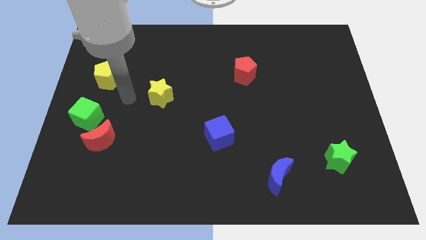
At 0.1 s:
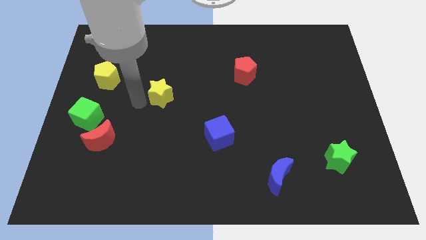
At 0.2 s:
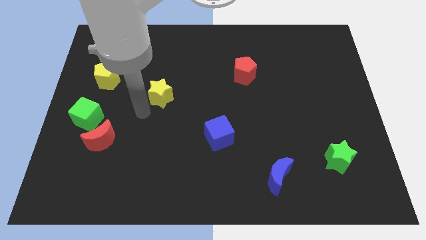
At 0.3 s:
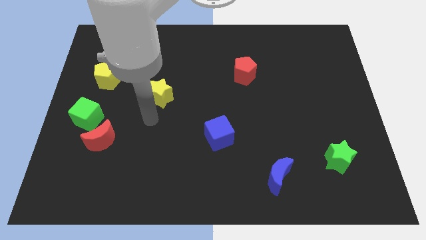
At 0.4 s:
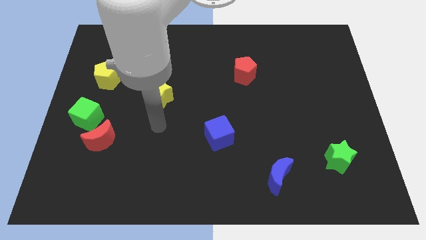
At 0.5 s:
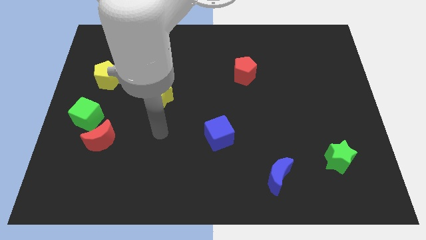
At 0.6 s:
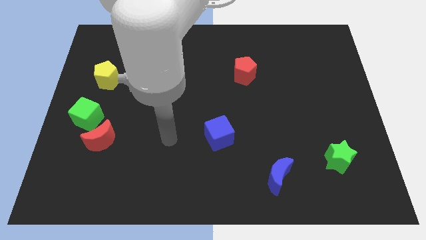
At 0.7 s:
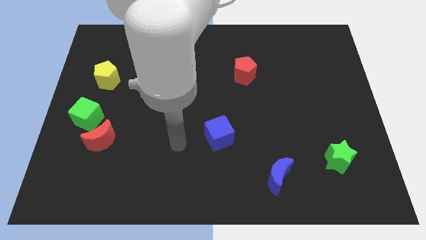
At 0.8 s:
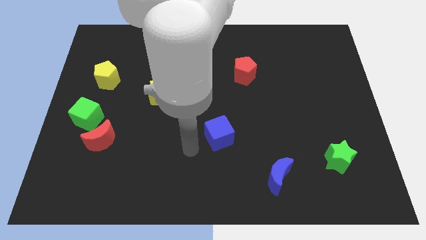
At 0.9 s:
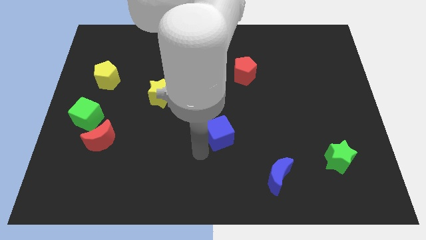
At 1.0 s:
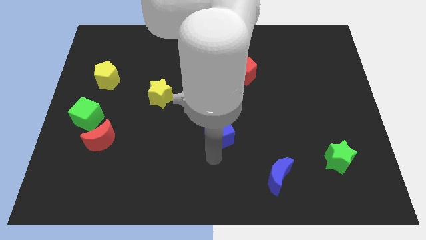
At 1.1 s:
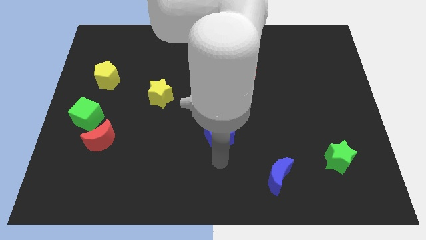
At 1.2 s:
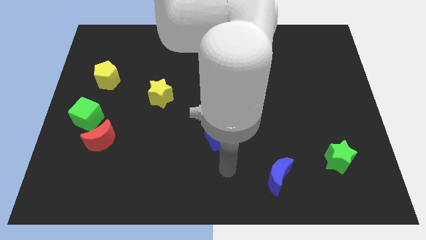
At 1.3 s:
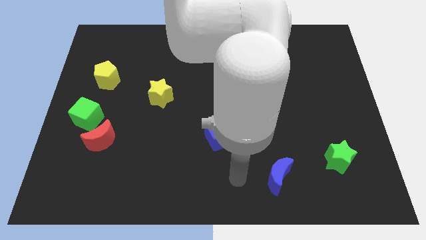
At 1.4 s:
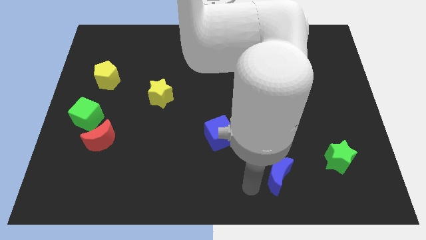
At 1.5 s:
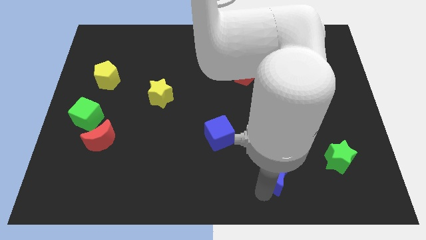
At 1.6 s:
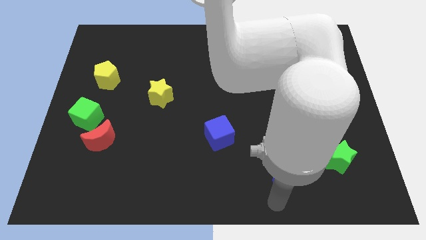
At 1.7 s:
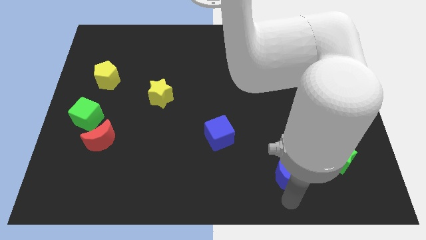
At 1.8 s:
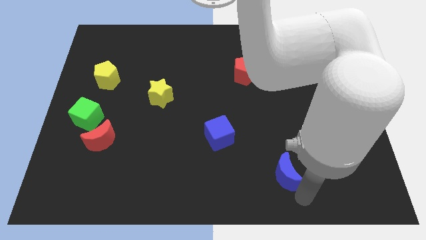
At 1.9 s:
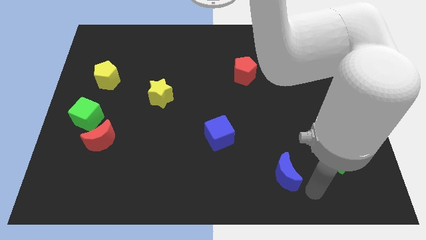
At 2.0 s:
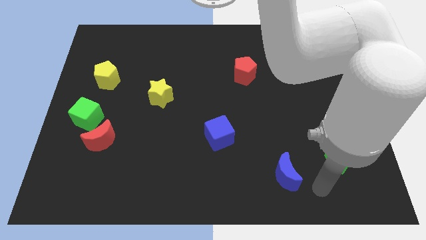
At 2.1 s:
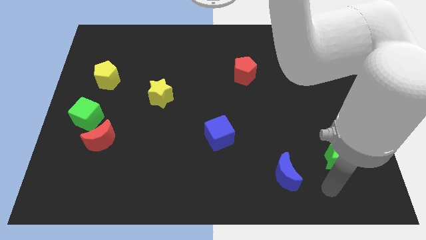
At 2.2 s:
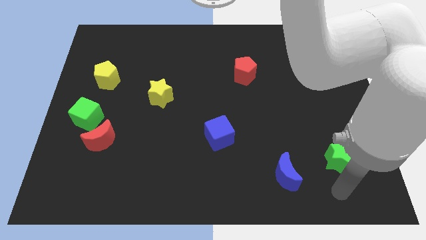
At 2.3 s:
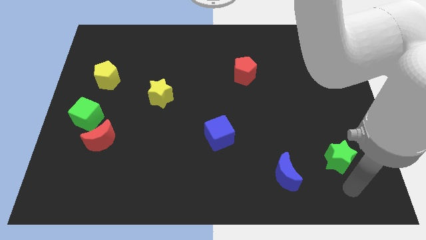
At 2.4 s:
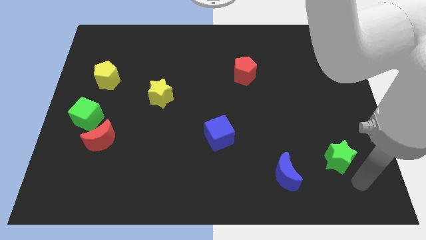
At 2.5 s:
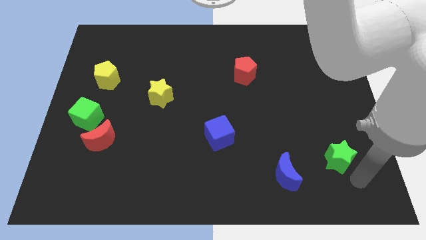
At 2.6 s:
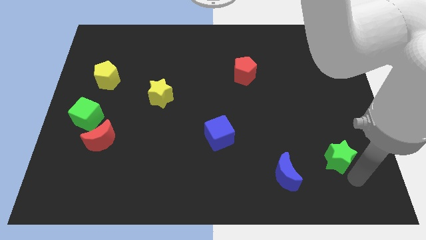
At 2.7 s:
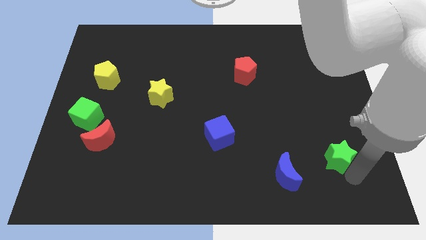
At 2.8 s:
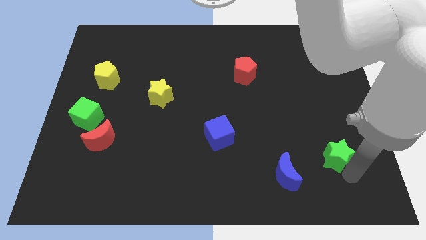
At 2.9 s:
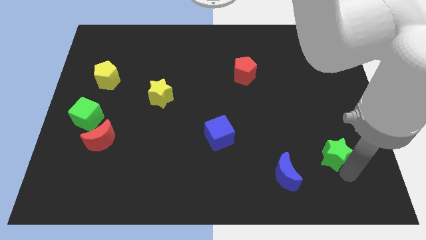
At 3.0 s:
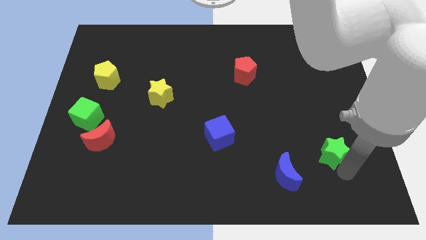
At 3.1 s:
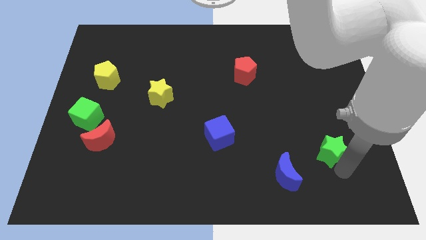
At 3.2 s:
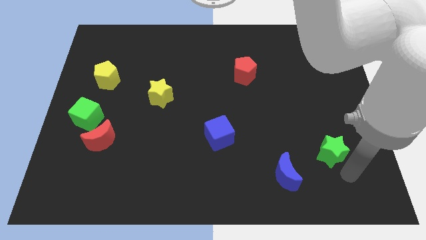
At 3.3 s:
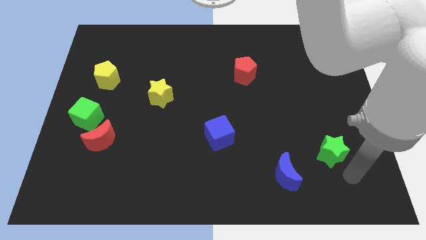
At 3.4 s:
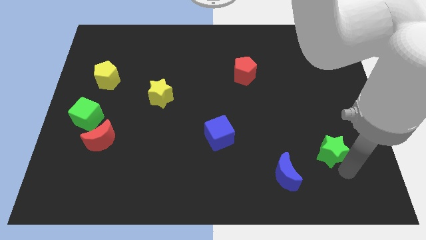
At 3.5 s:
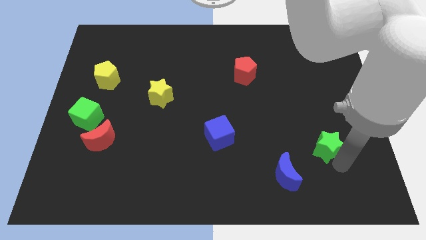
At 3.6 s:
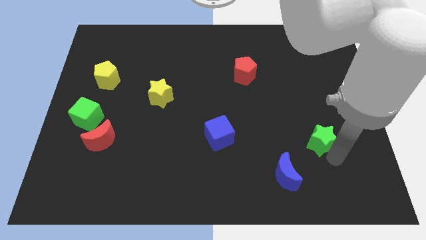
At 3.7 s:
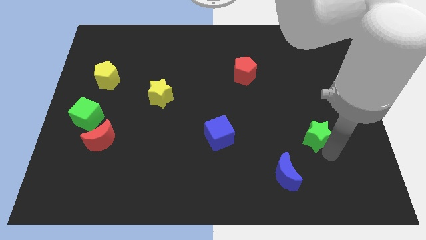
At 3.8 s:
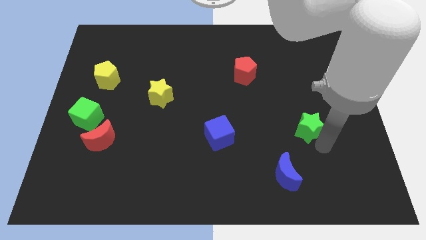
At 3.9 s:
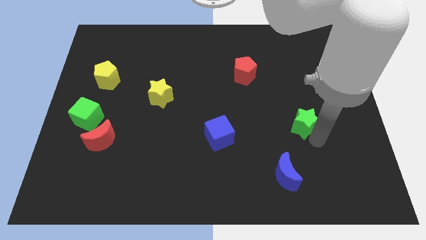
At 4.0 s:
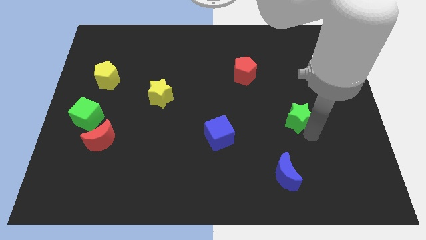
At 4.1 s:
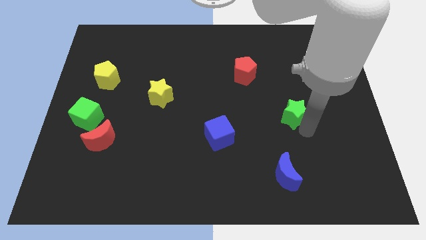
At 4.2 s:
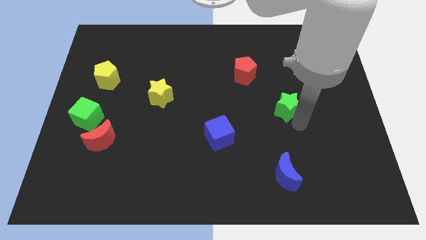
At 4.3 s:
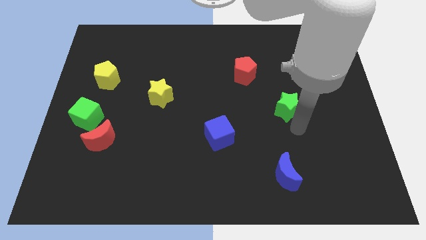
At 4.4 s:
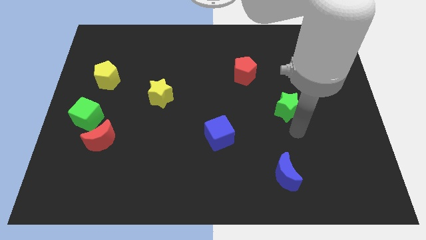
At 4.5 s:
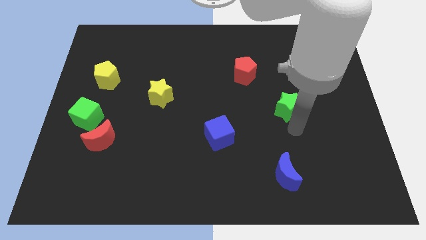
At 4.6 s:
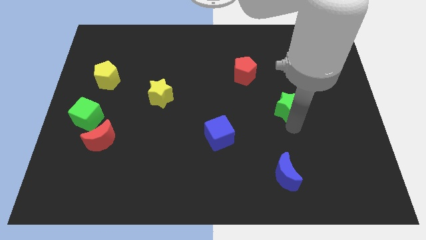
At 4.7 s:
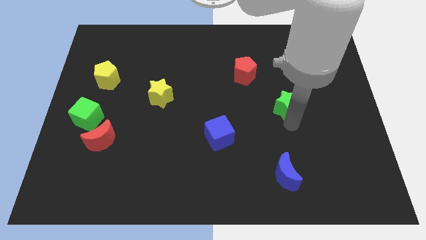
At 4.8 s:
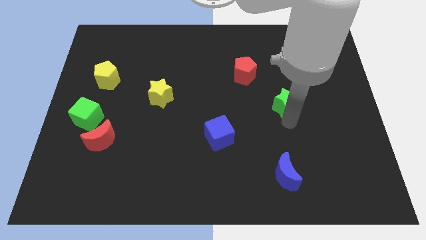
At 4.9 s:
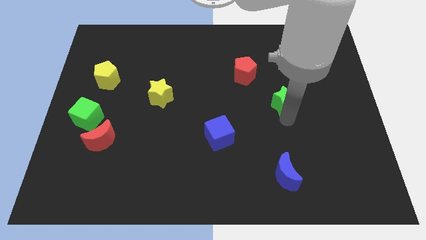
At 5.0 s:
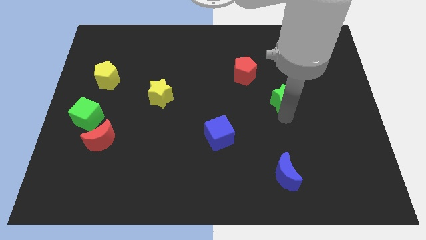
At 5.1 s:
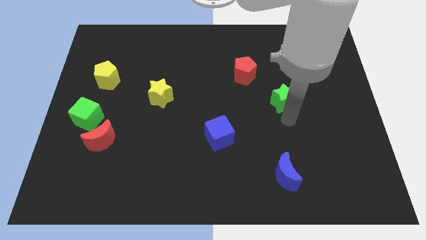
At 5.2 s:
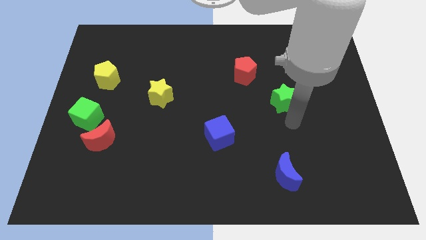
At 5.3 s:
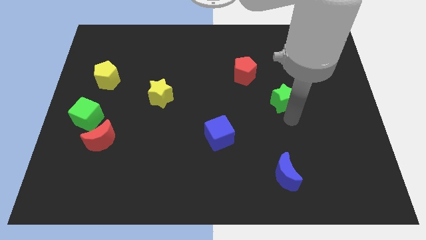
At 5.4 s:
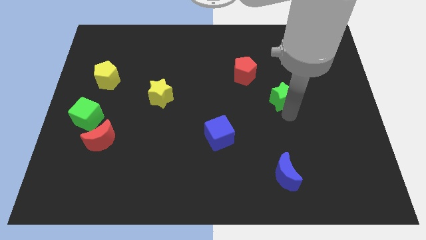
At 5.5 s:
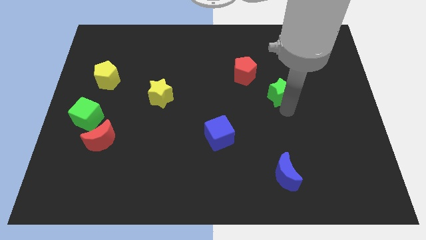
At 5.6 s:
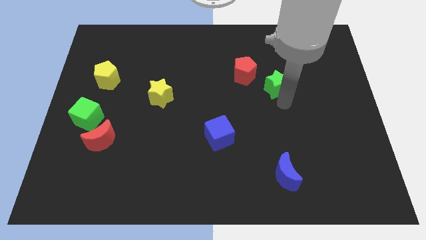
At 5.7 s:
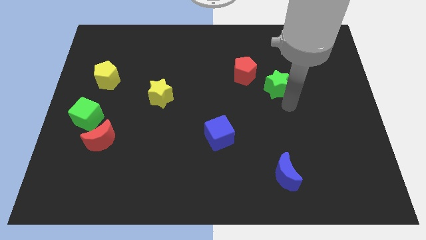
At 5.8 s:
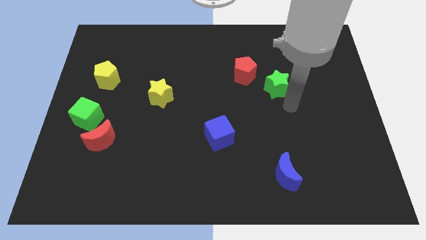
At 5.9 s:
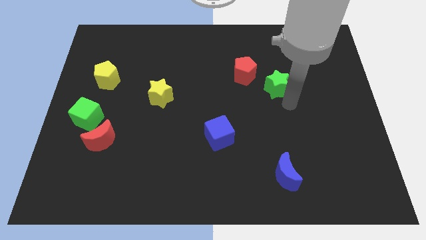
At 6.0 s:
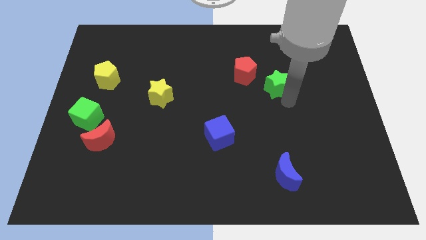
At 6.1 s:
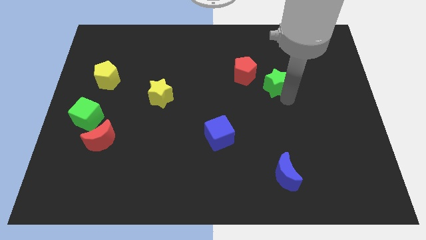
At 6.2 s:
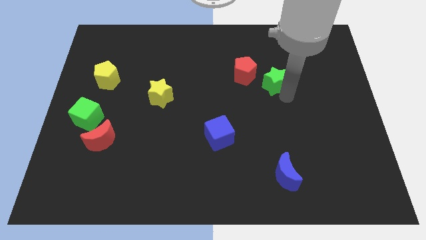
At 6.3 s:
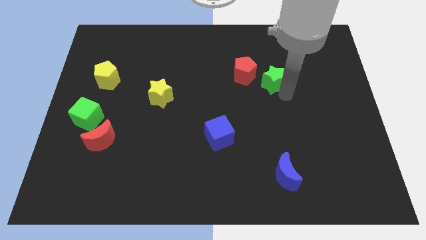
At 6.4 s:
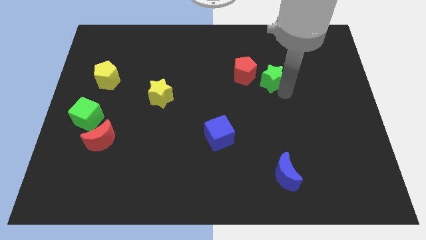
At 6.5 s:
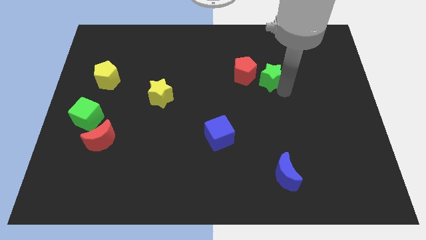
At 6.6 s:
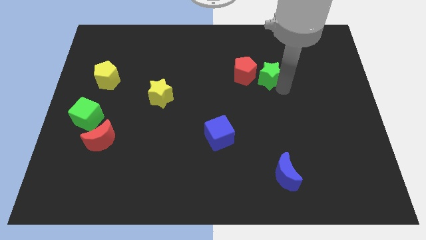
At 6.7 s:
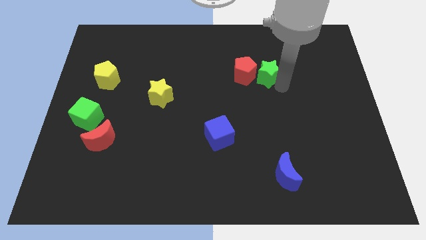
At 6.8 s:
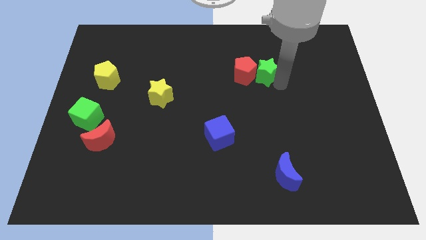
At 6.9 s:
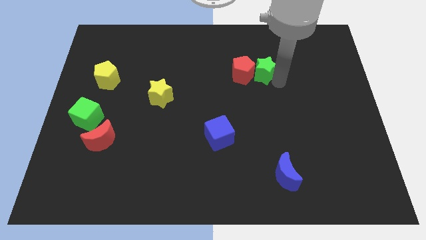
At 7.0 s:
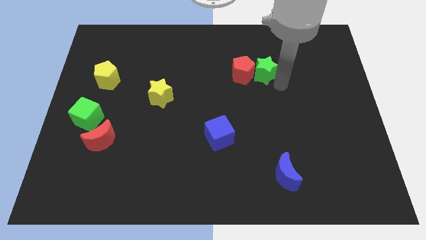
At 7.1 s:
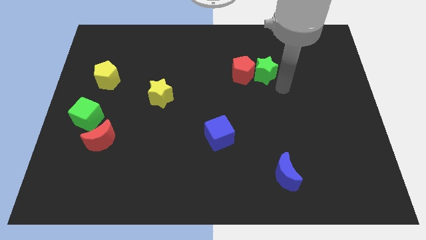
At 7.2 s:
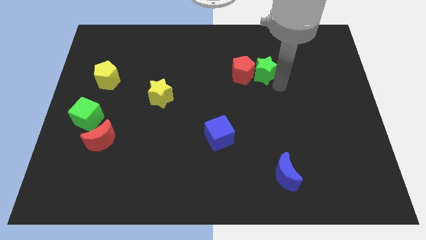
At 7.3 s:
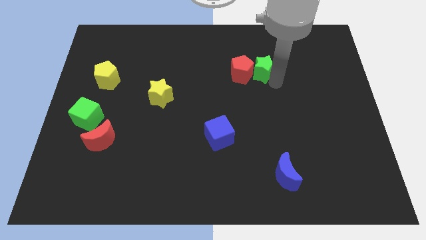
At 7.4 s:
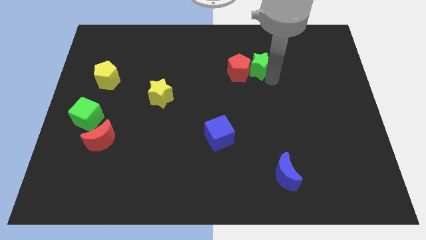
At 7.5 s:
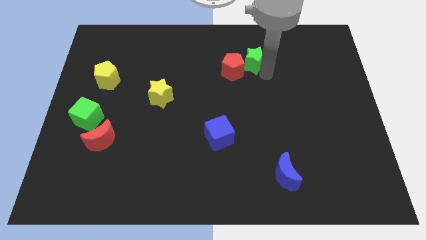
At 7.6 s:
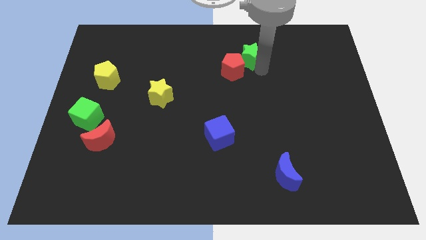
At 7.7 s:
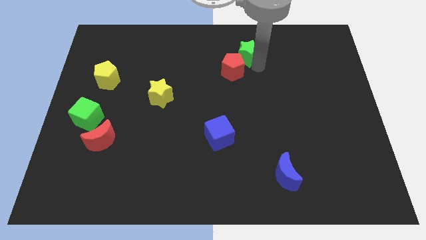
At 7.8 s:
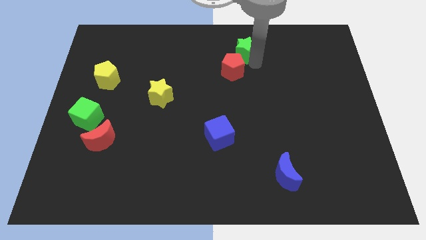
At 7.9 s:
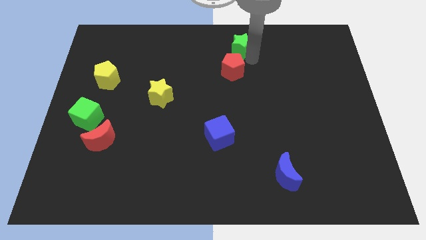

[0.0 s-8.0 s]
put the green star to the top side
